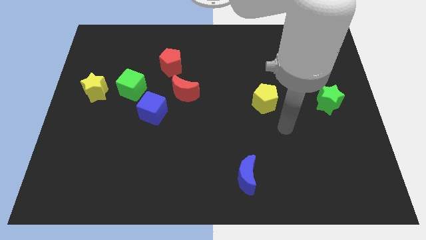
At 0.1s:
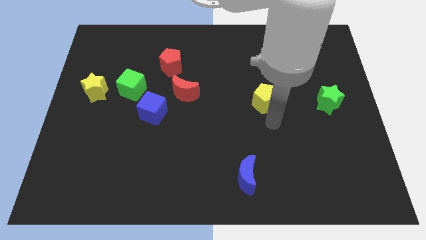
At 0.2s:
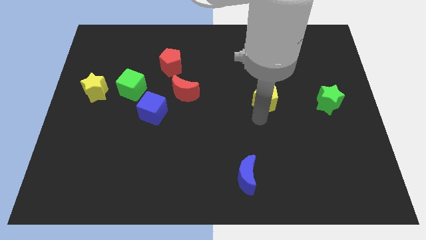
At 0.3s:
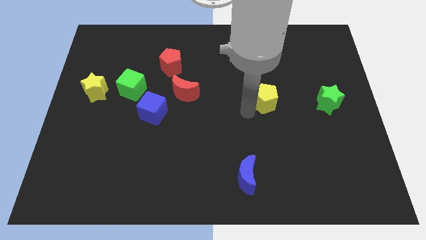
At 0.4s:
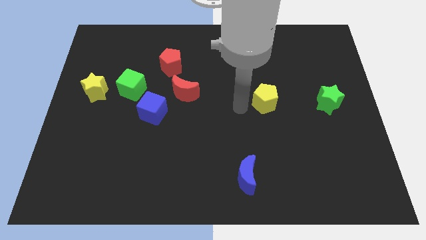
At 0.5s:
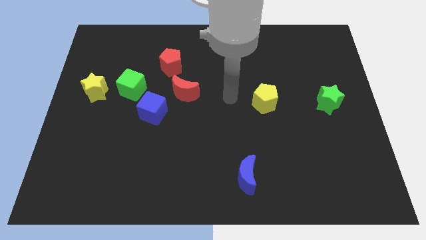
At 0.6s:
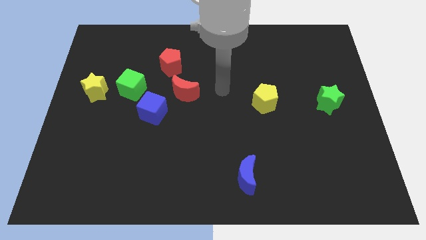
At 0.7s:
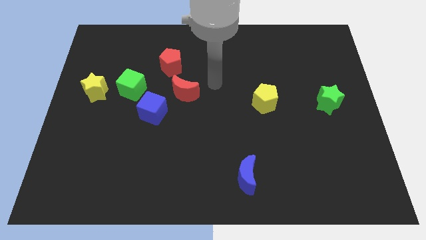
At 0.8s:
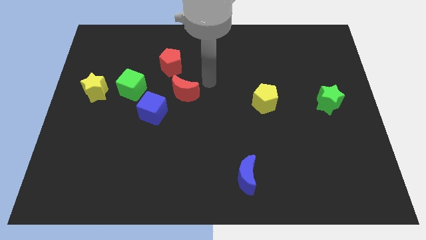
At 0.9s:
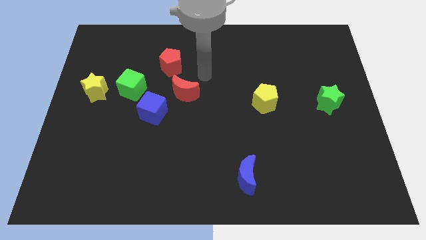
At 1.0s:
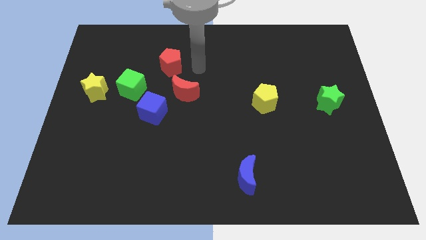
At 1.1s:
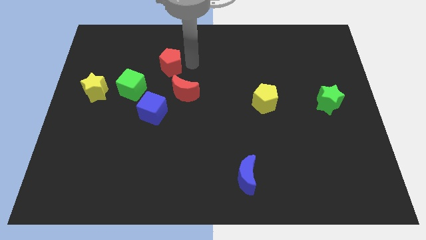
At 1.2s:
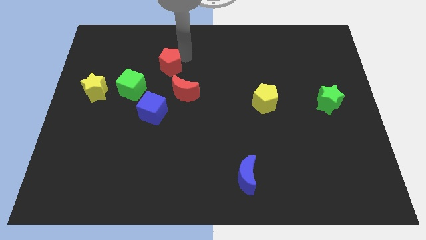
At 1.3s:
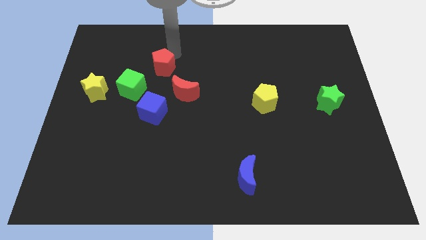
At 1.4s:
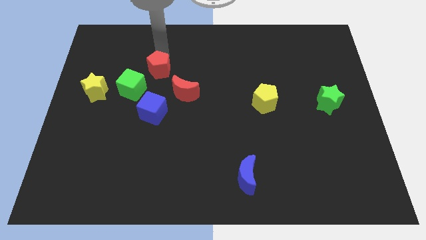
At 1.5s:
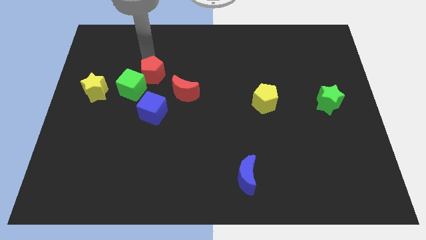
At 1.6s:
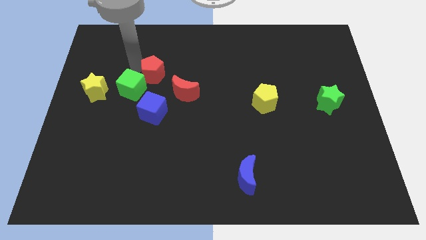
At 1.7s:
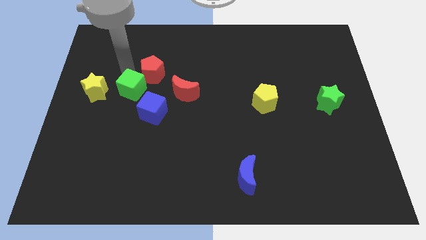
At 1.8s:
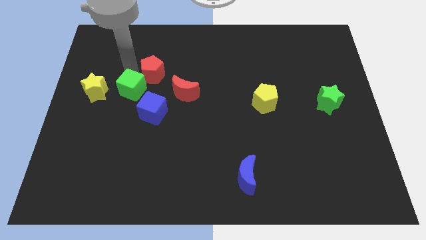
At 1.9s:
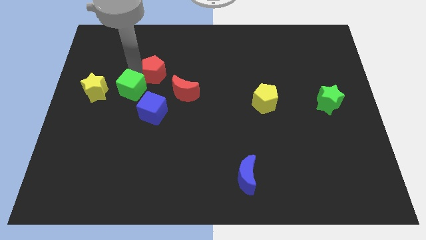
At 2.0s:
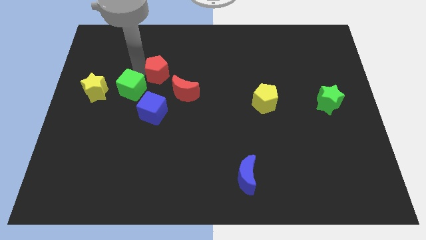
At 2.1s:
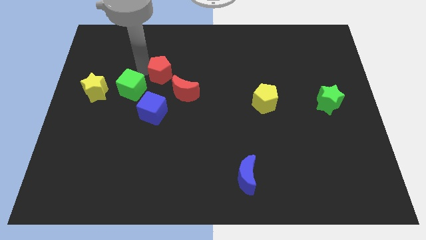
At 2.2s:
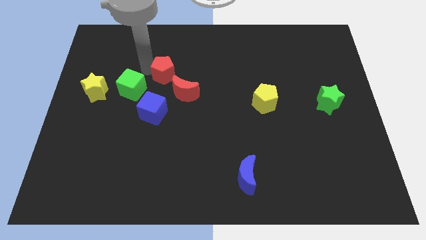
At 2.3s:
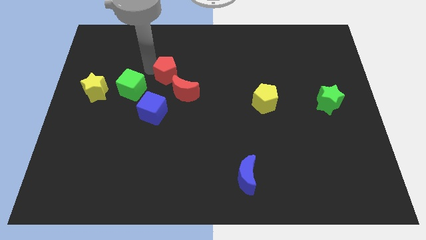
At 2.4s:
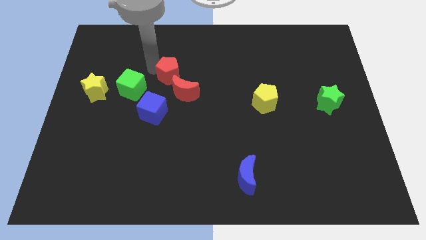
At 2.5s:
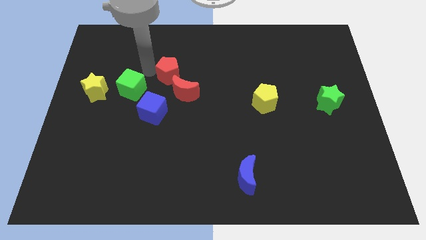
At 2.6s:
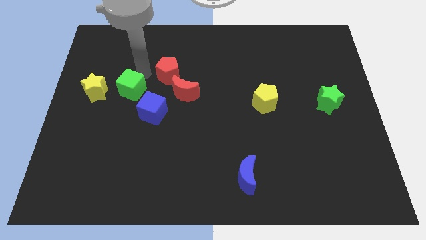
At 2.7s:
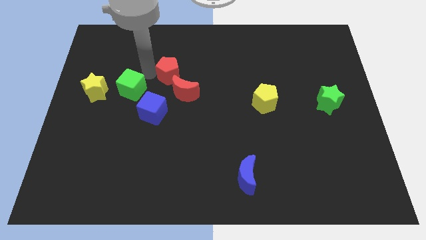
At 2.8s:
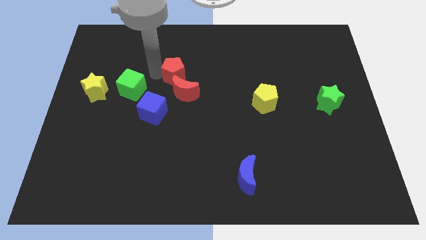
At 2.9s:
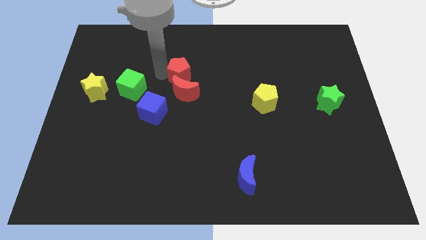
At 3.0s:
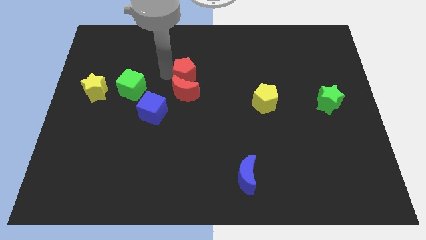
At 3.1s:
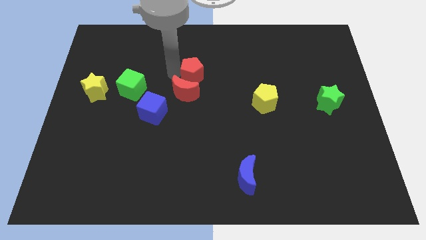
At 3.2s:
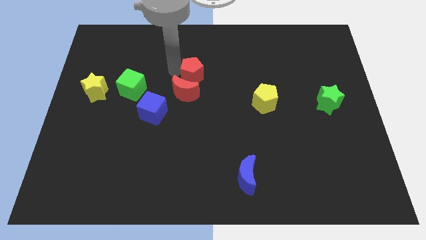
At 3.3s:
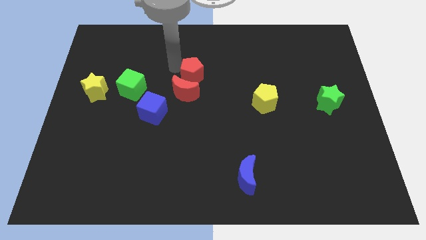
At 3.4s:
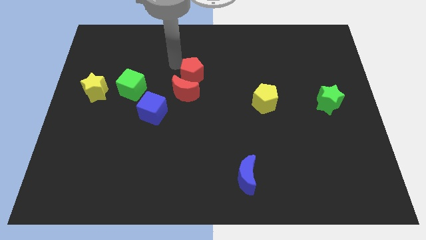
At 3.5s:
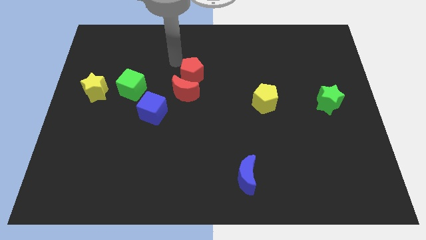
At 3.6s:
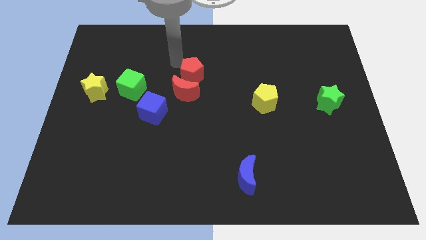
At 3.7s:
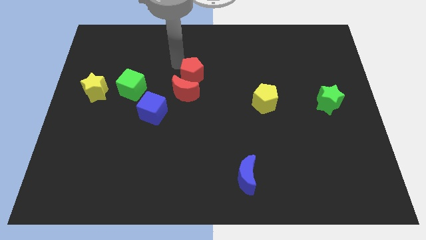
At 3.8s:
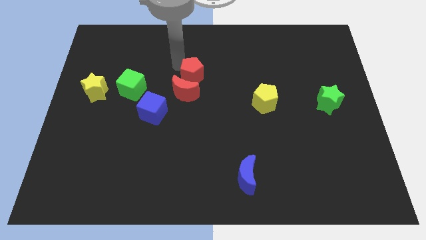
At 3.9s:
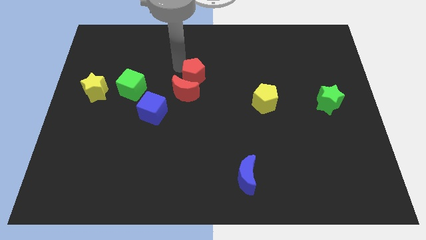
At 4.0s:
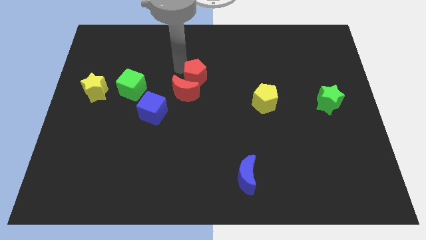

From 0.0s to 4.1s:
push the red pentagon a little bit down and to the right

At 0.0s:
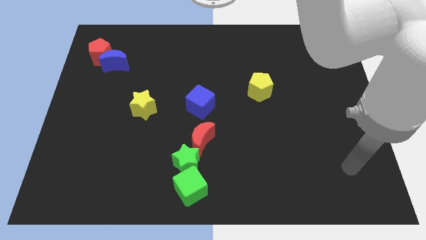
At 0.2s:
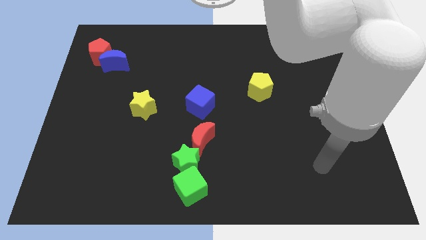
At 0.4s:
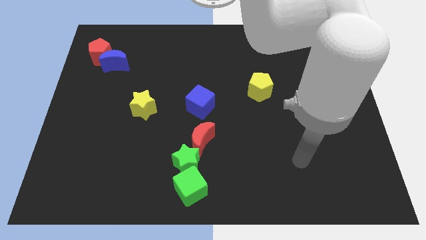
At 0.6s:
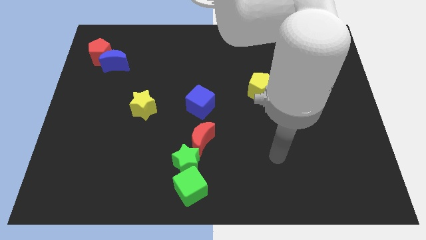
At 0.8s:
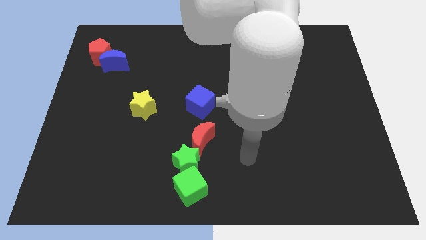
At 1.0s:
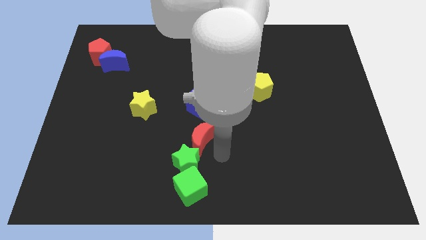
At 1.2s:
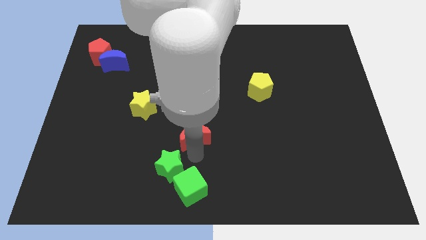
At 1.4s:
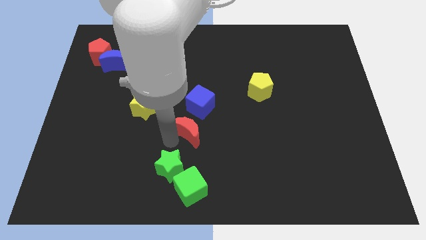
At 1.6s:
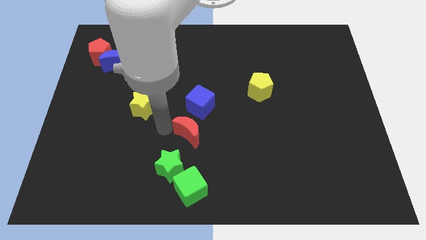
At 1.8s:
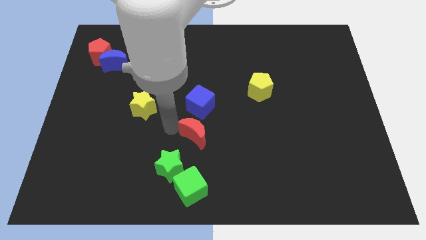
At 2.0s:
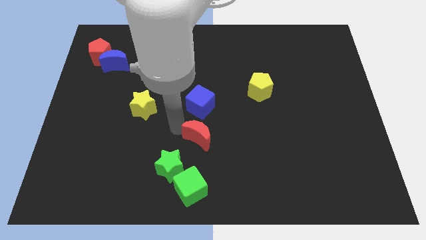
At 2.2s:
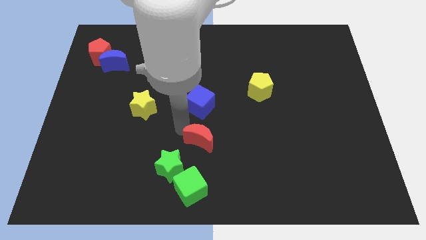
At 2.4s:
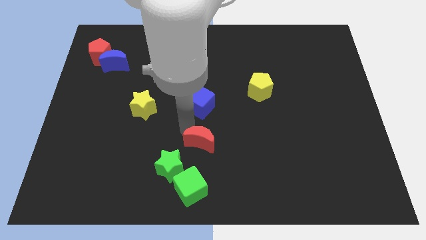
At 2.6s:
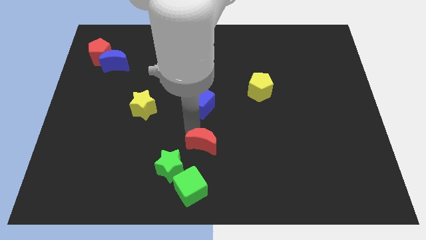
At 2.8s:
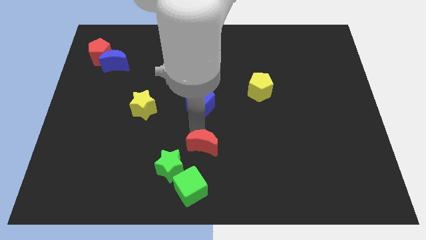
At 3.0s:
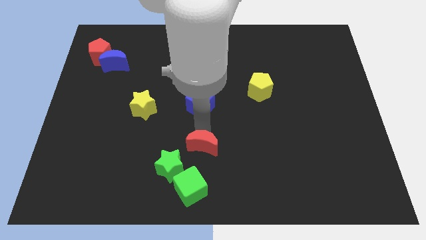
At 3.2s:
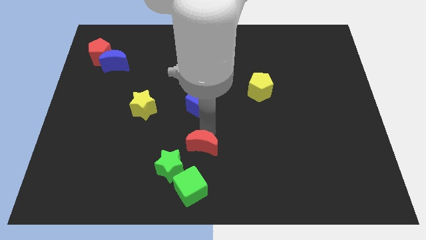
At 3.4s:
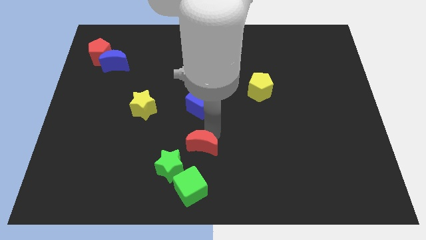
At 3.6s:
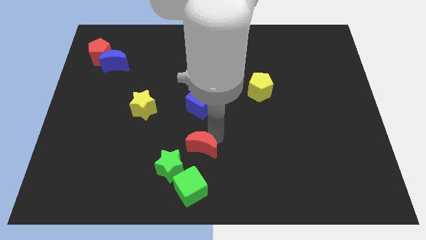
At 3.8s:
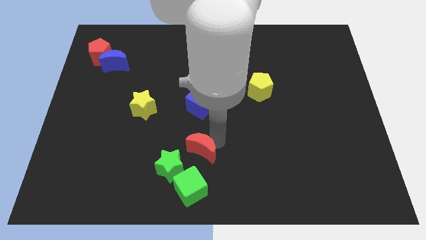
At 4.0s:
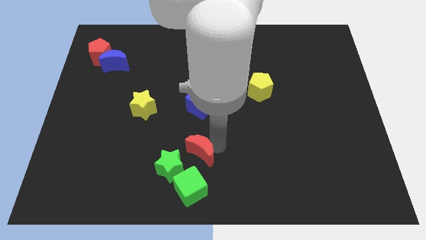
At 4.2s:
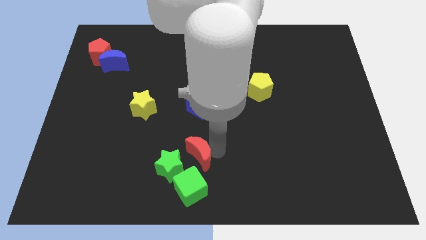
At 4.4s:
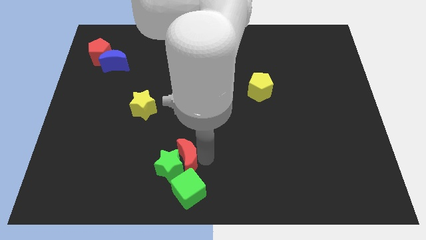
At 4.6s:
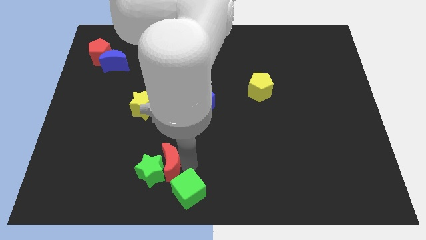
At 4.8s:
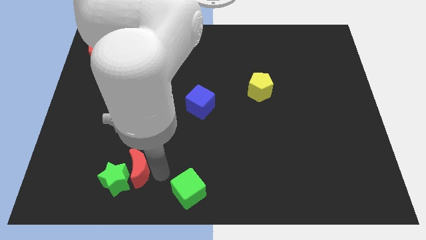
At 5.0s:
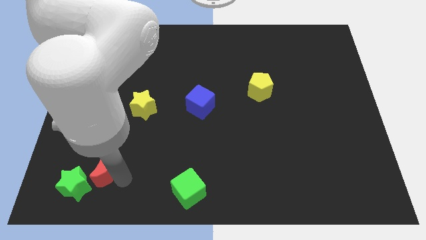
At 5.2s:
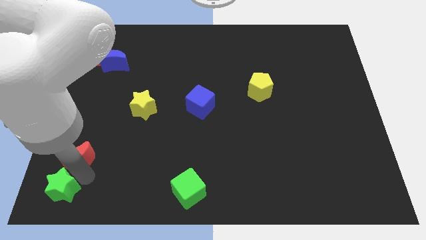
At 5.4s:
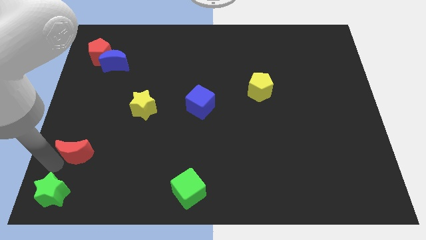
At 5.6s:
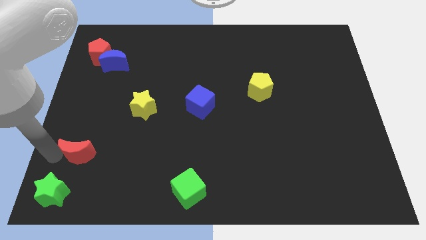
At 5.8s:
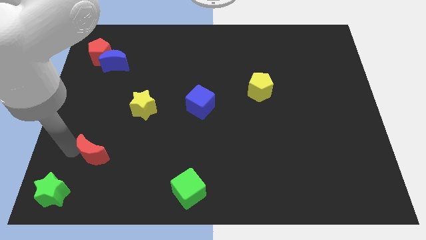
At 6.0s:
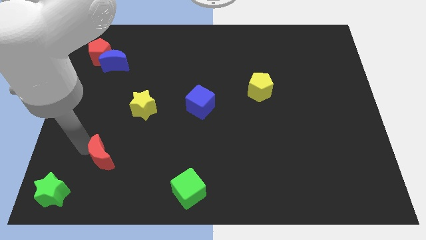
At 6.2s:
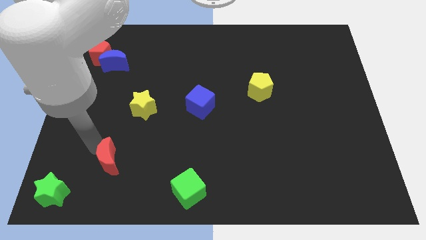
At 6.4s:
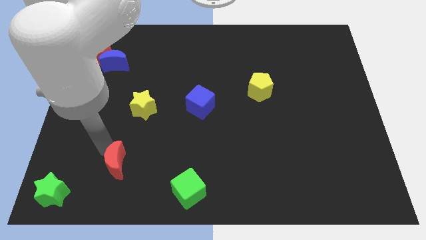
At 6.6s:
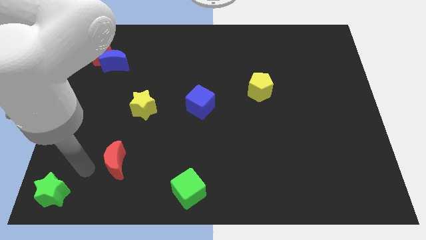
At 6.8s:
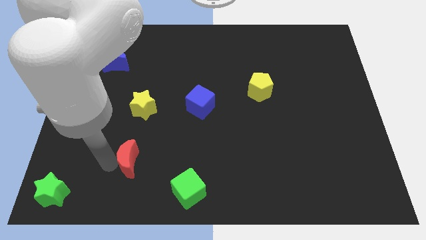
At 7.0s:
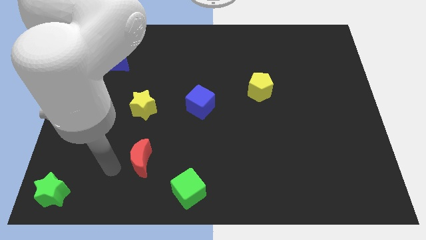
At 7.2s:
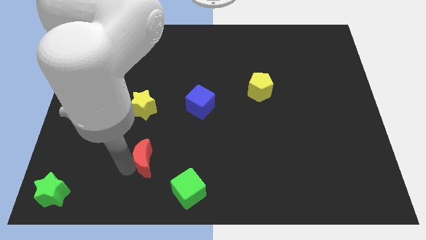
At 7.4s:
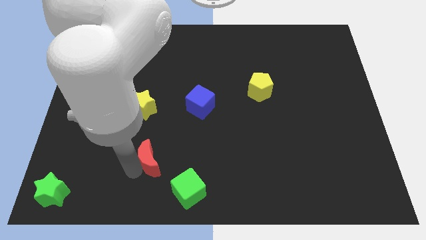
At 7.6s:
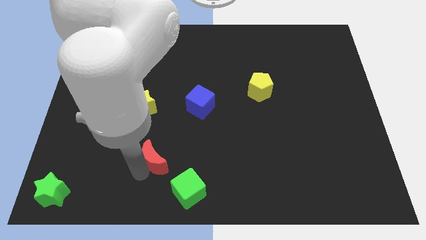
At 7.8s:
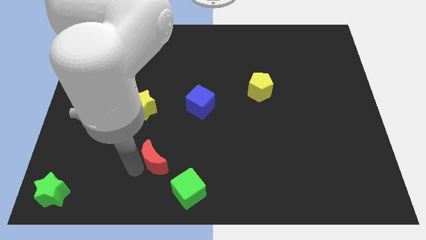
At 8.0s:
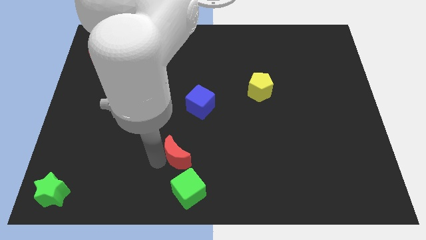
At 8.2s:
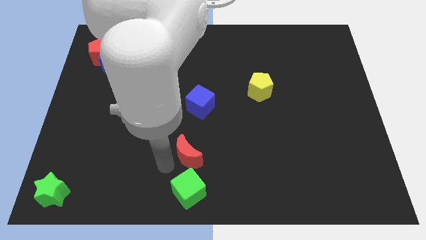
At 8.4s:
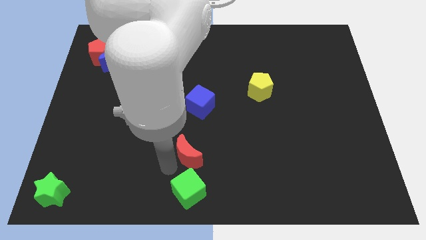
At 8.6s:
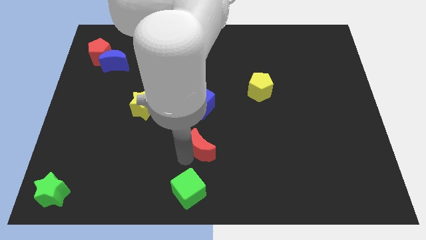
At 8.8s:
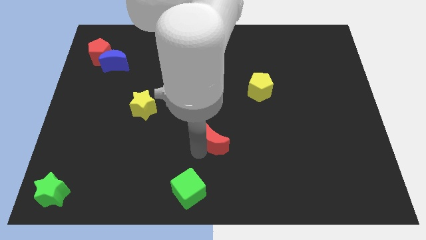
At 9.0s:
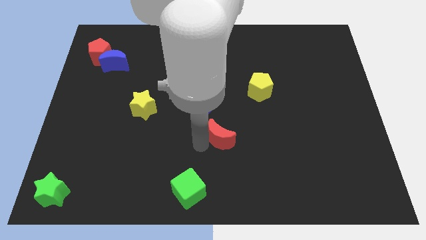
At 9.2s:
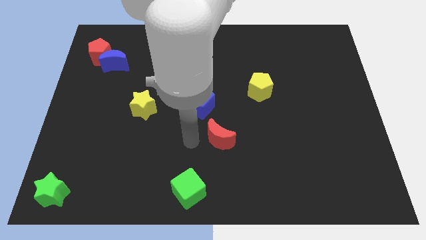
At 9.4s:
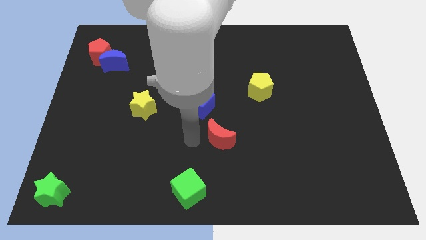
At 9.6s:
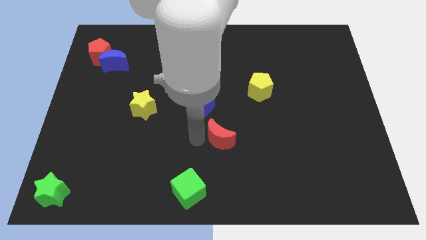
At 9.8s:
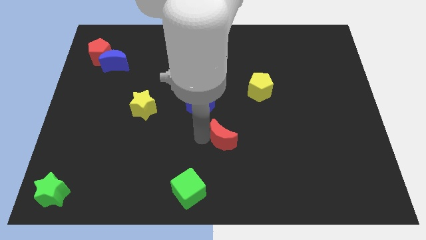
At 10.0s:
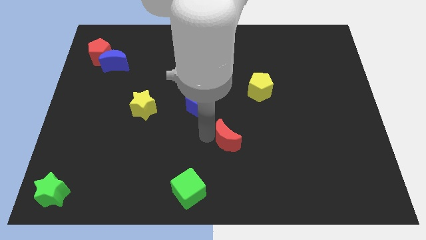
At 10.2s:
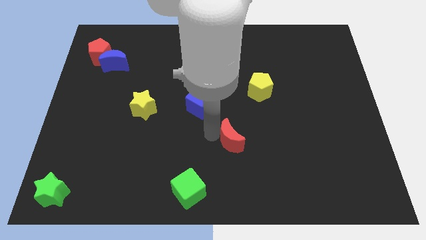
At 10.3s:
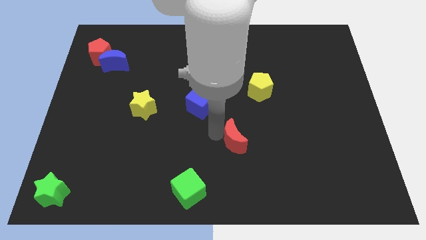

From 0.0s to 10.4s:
slightly push the red moon to the right
